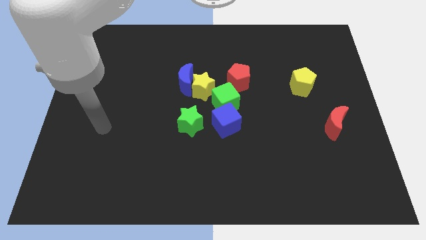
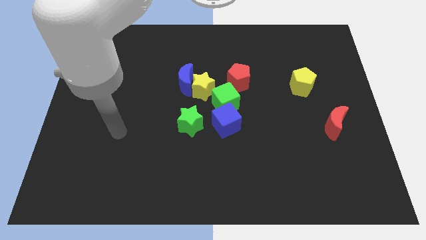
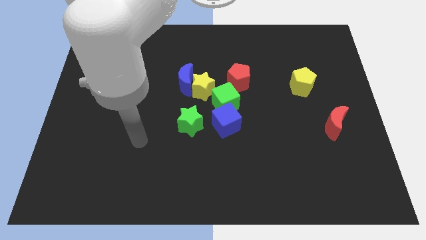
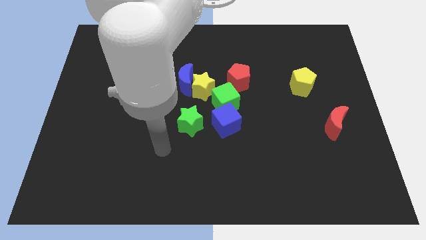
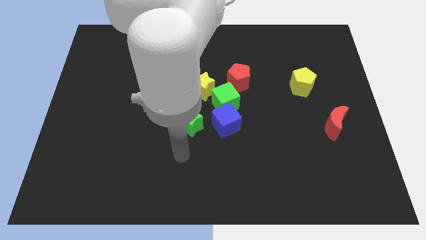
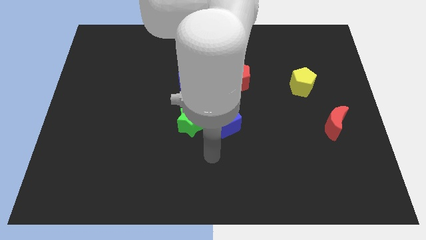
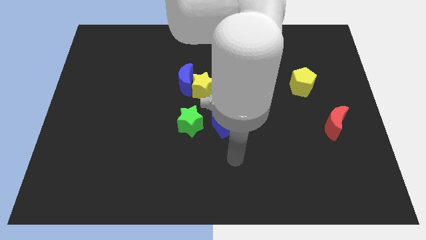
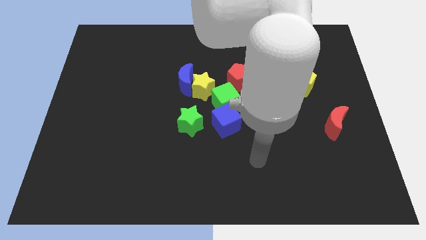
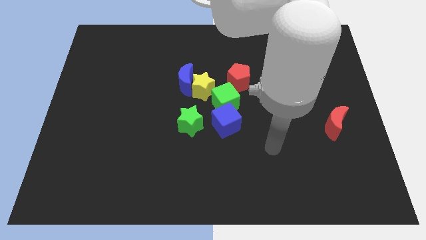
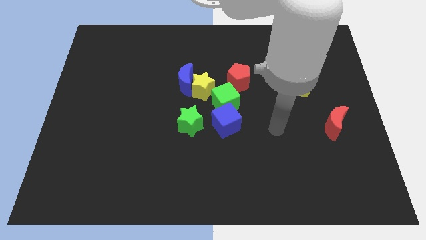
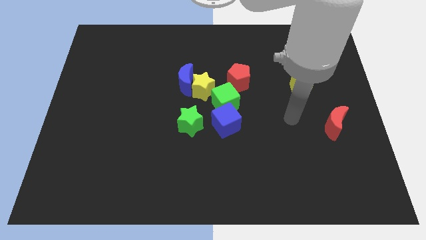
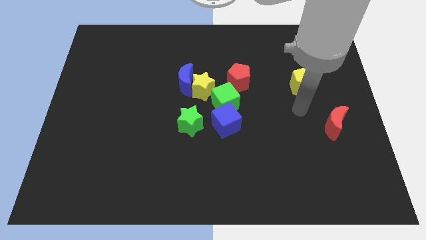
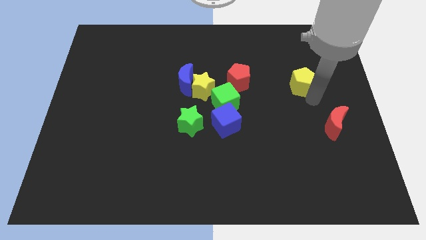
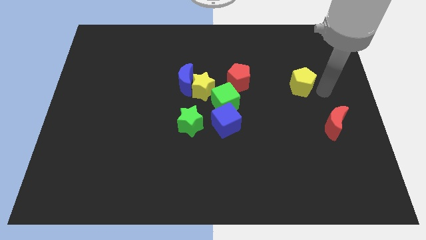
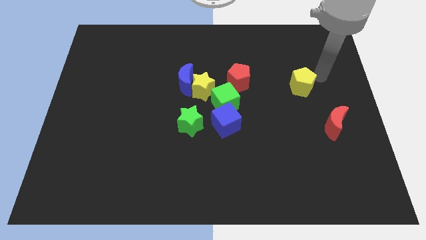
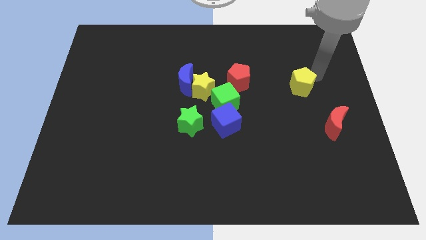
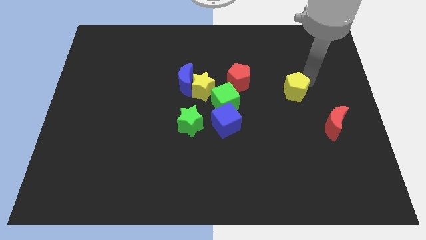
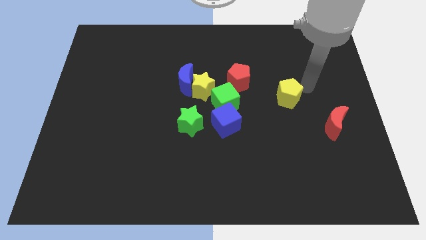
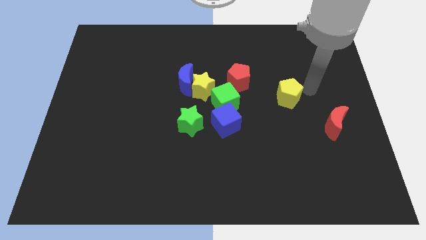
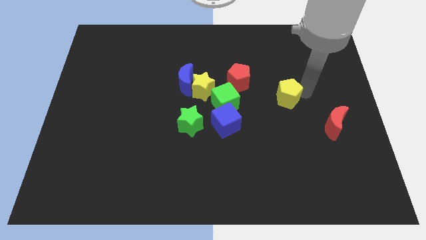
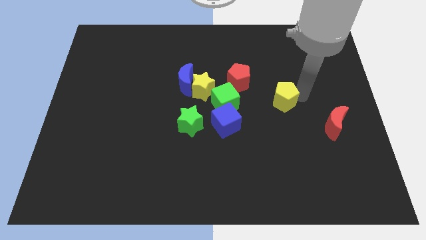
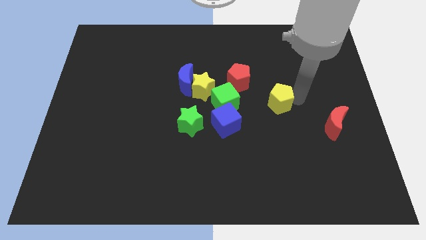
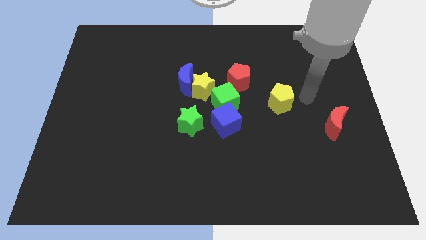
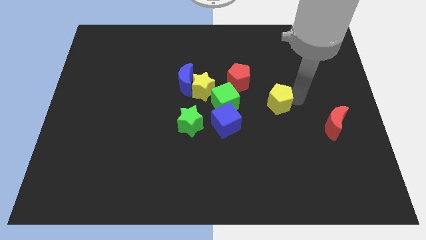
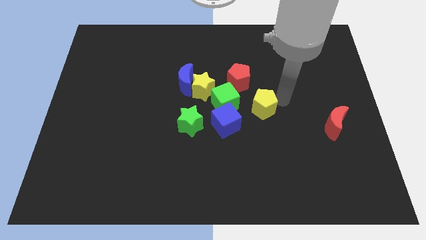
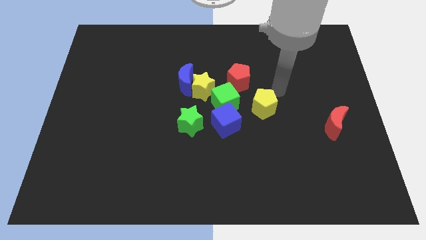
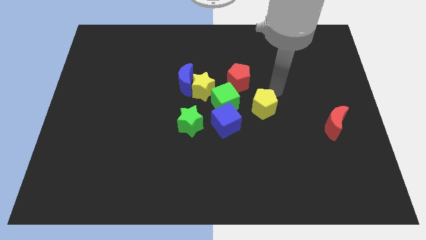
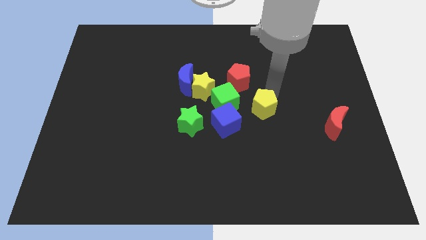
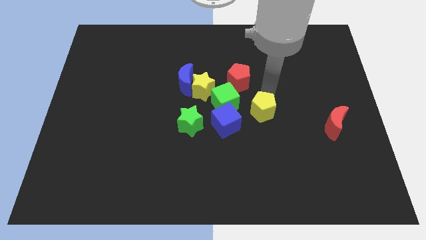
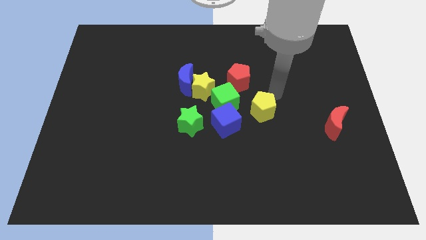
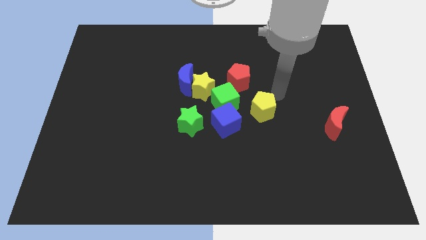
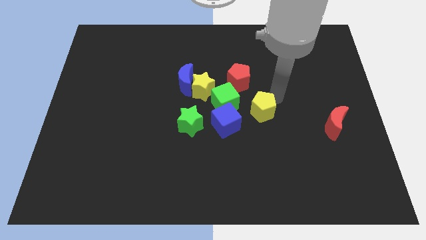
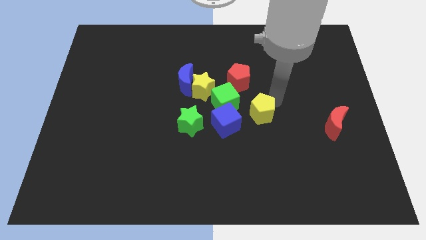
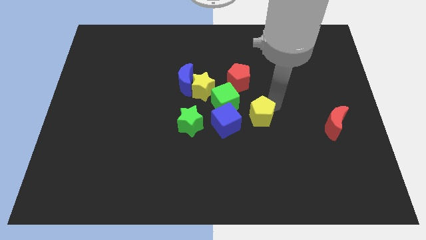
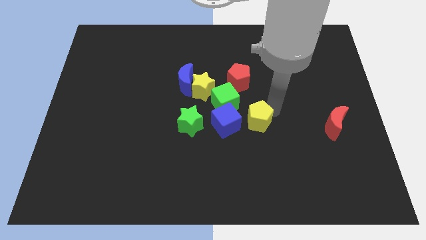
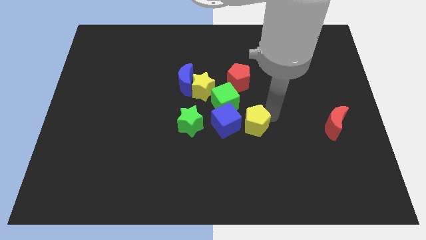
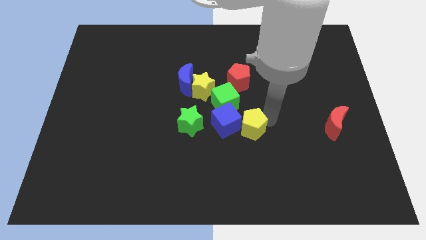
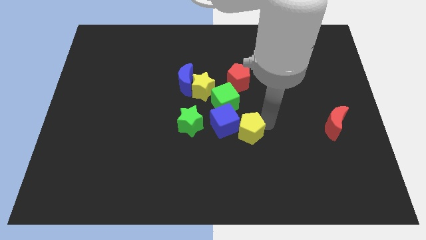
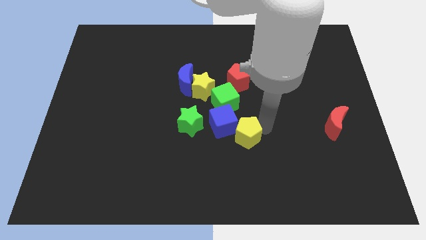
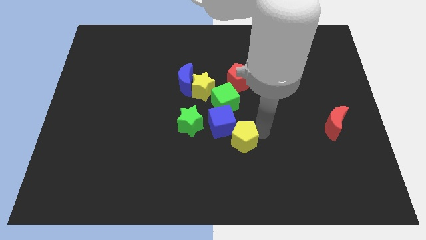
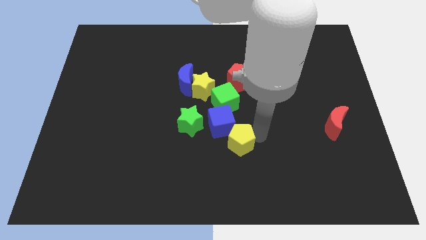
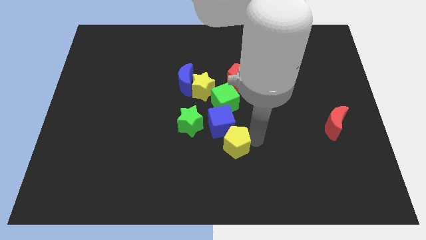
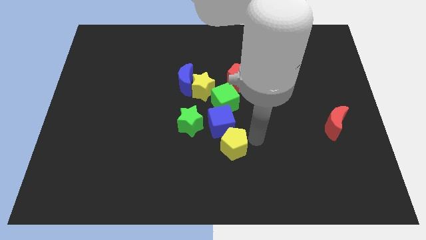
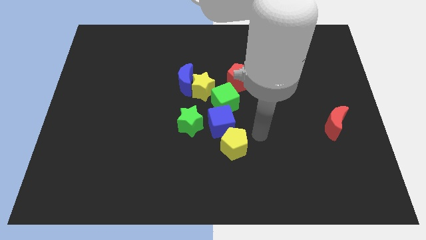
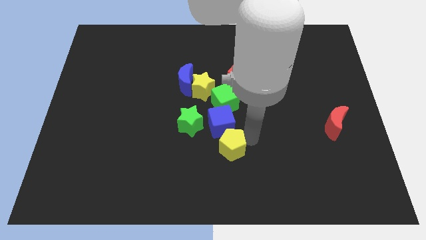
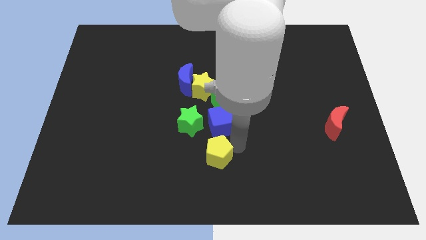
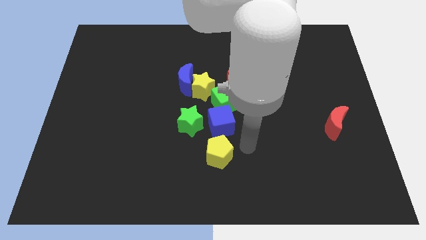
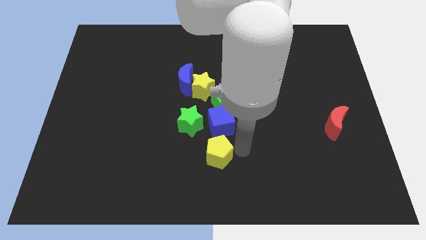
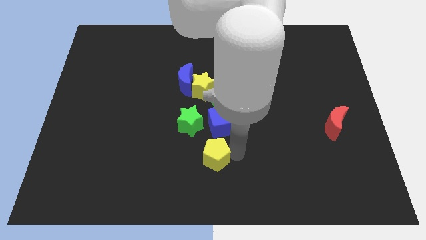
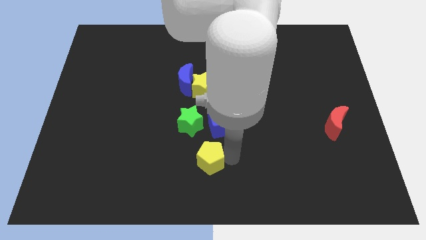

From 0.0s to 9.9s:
push the yellow pentagon to the bottom of the green star

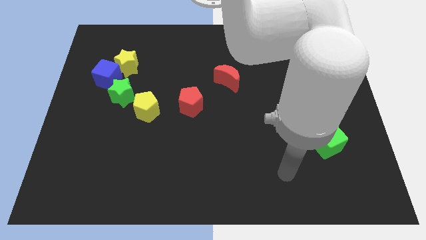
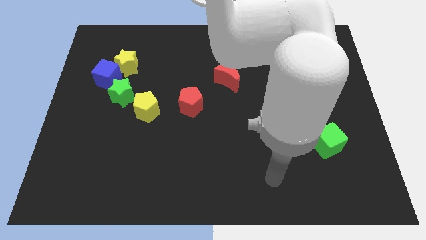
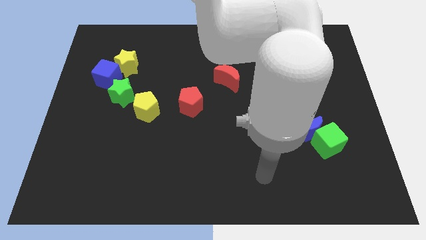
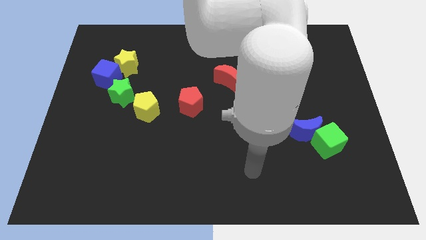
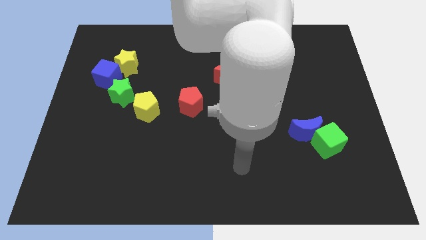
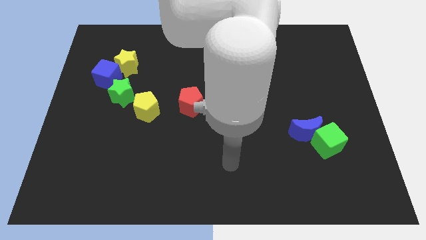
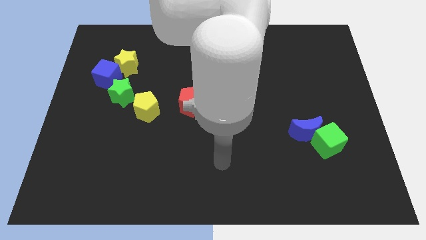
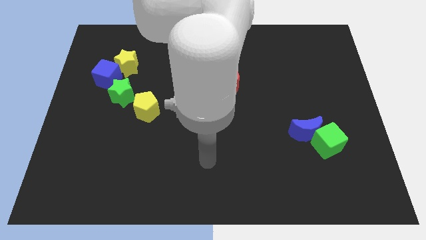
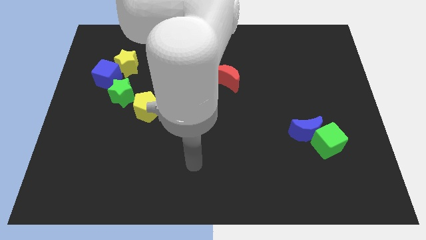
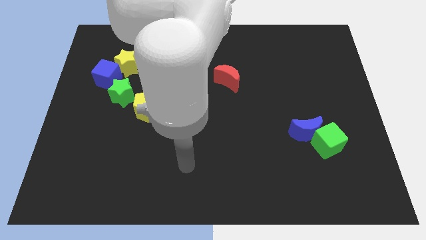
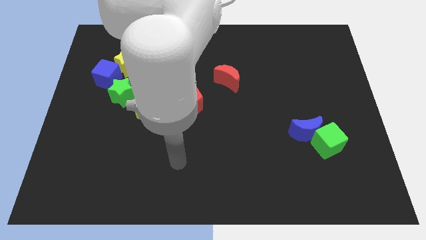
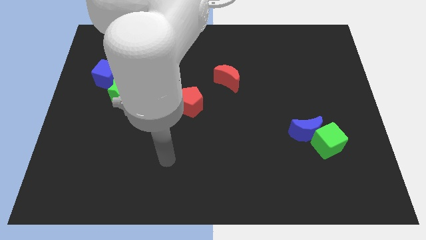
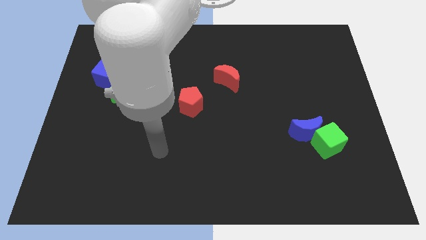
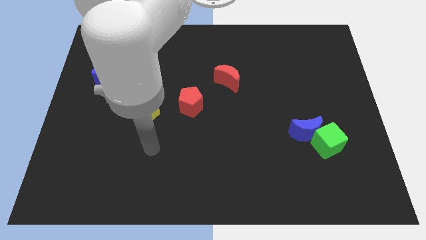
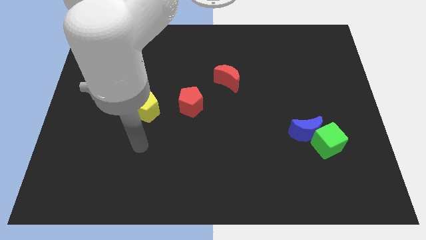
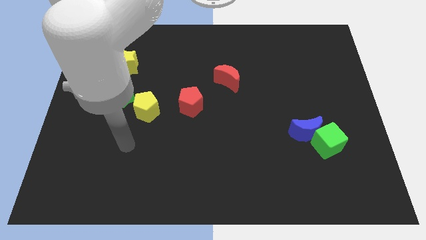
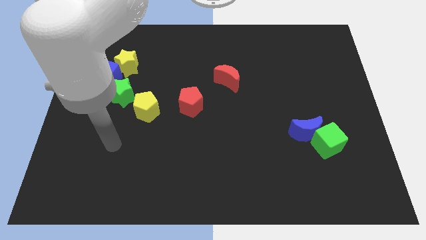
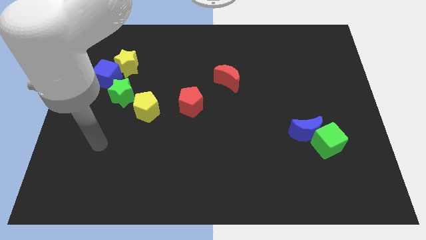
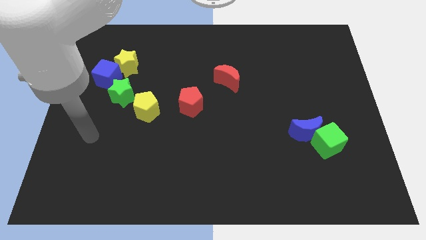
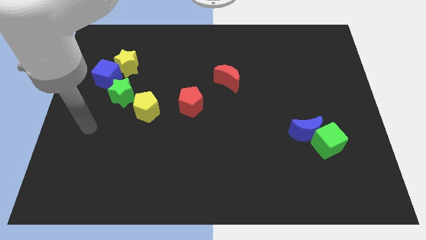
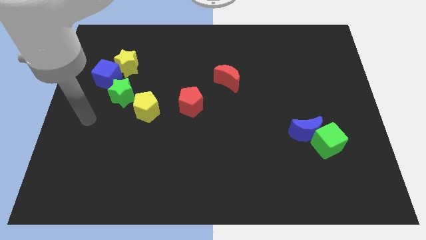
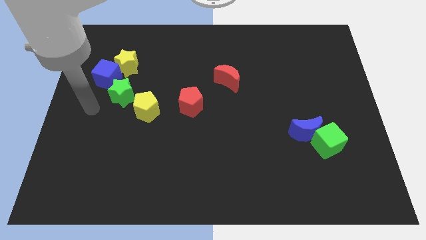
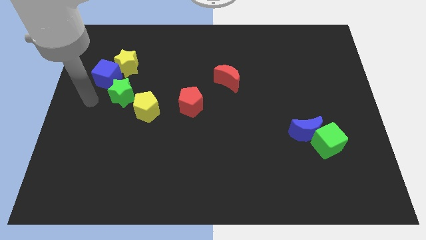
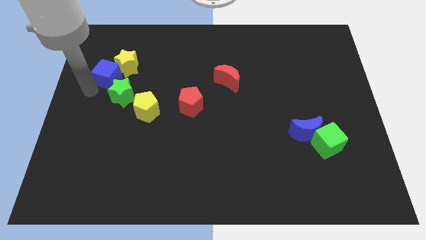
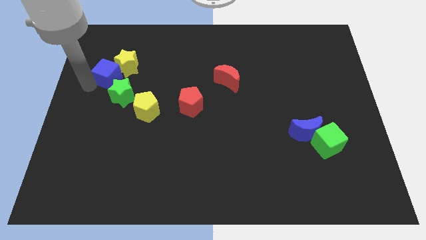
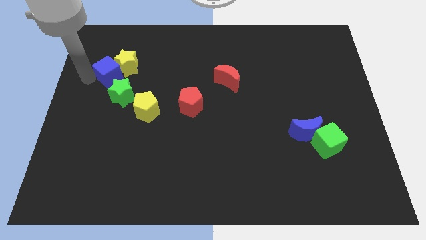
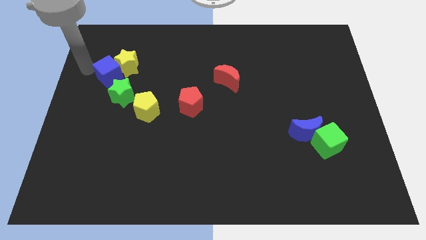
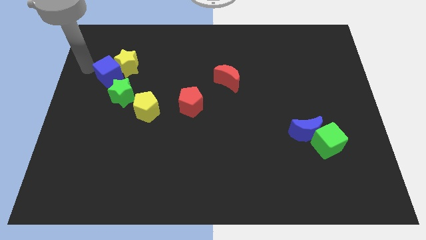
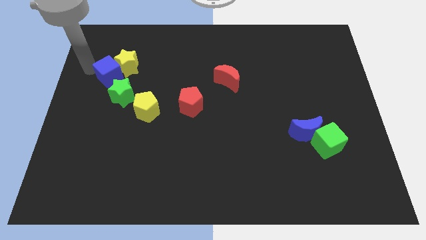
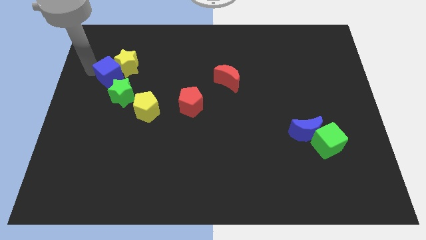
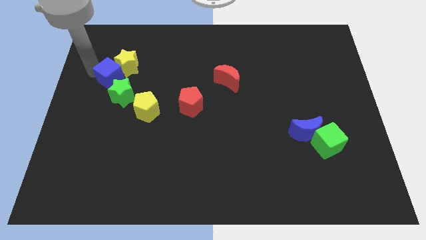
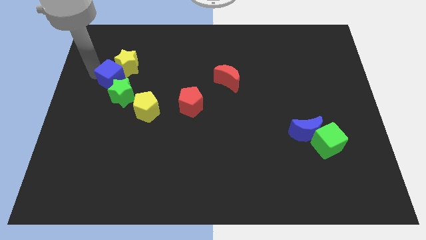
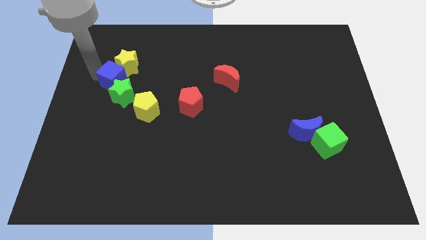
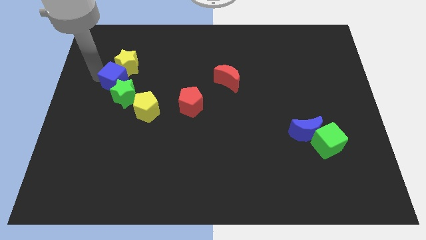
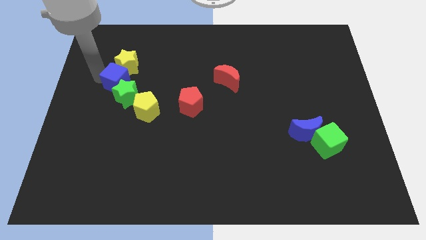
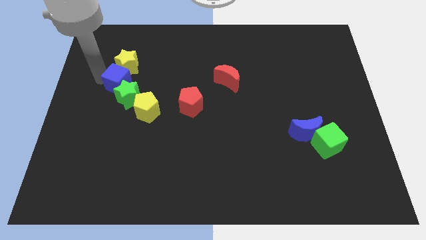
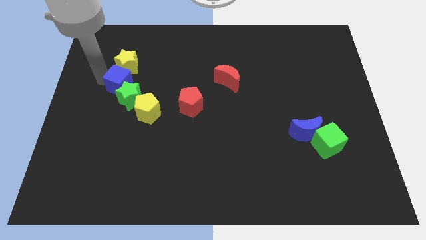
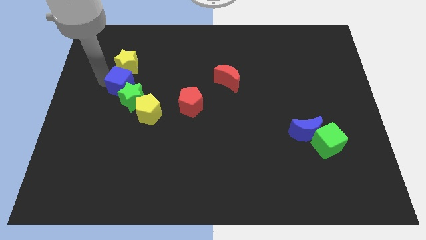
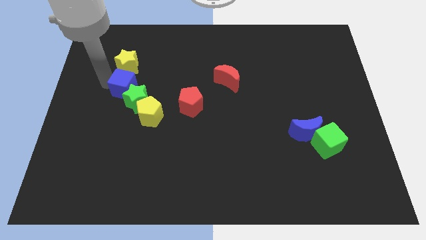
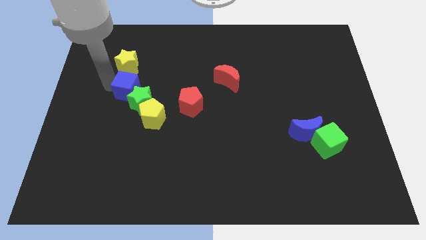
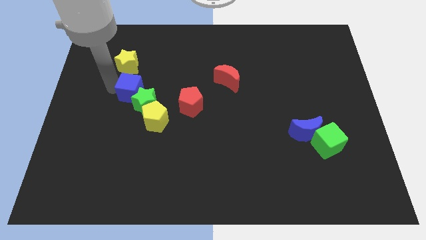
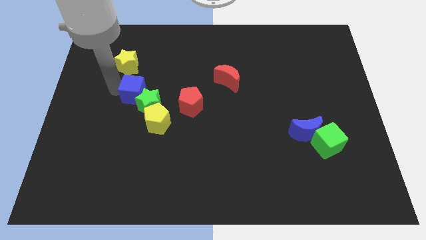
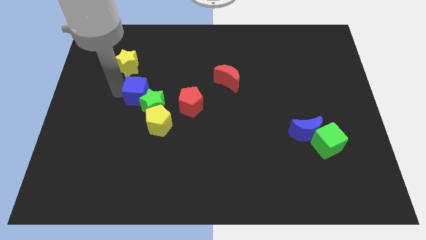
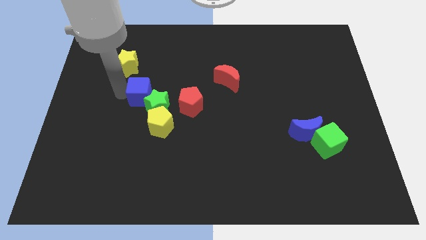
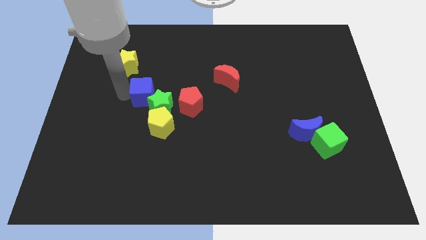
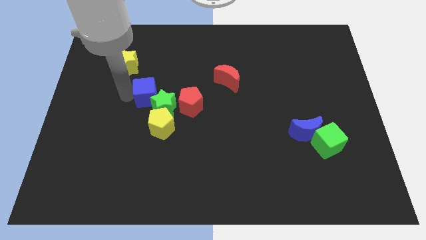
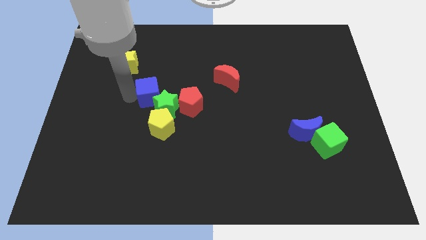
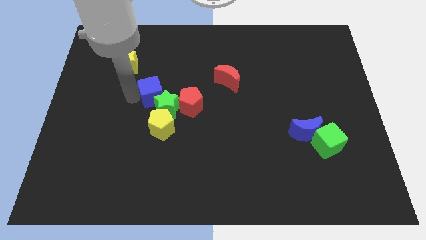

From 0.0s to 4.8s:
move the blue cube to the top left side of the red pentagon
